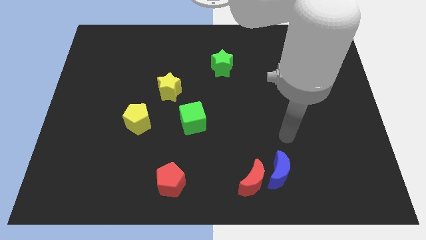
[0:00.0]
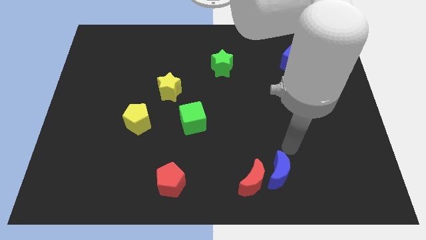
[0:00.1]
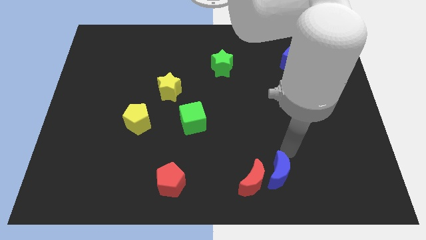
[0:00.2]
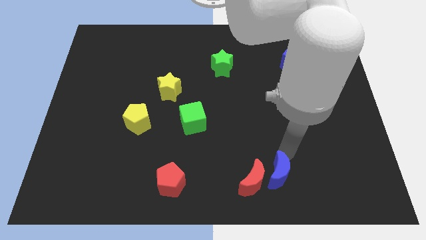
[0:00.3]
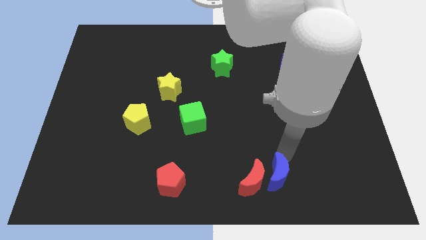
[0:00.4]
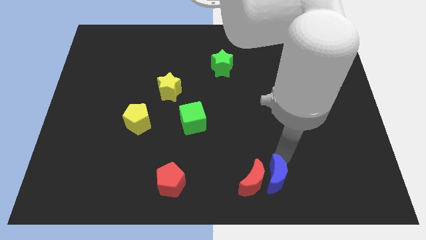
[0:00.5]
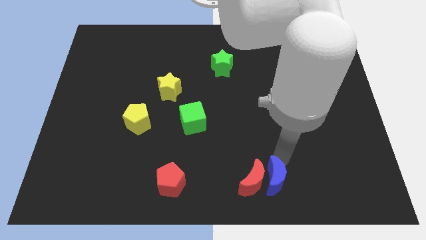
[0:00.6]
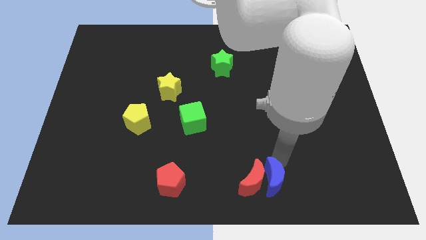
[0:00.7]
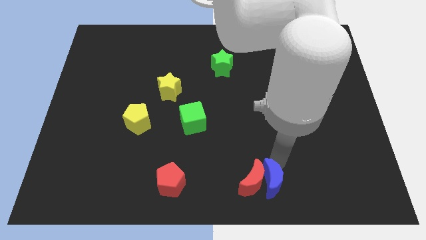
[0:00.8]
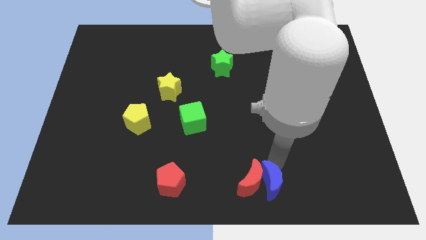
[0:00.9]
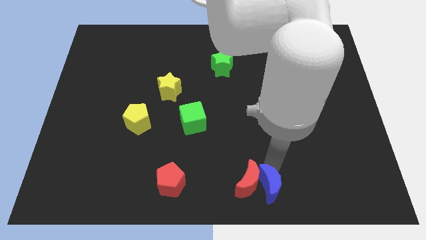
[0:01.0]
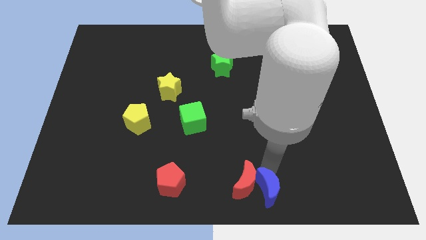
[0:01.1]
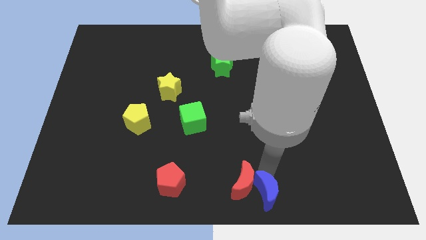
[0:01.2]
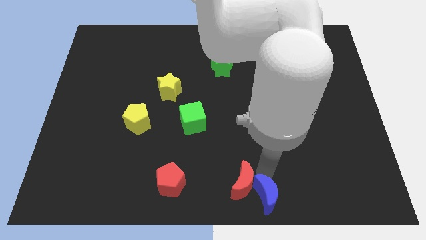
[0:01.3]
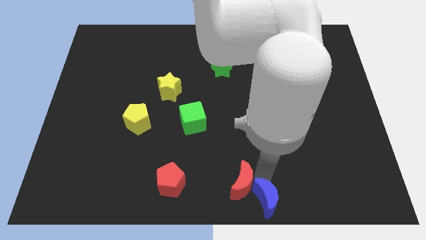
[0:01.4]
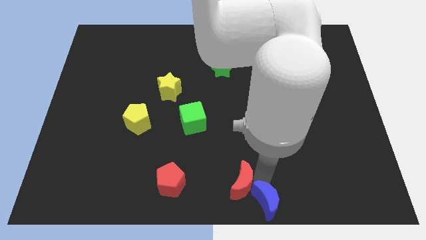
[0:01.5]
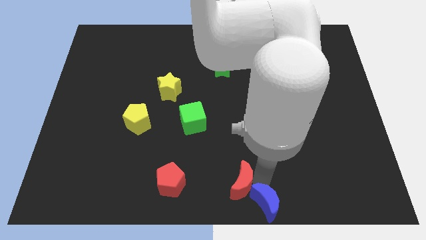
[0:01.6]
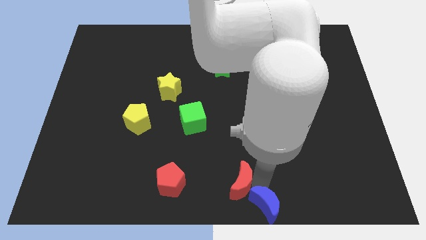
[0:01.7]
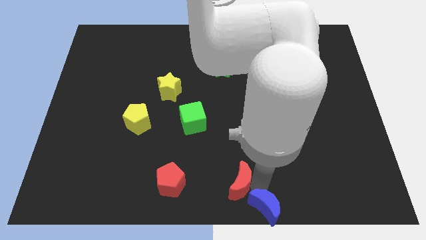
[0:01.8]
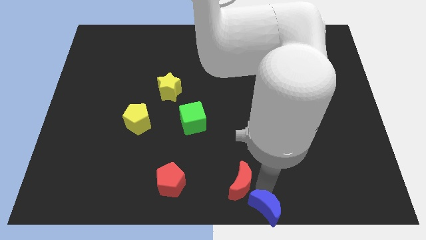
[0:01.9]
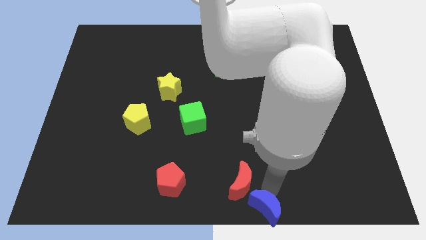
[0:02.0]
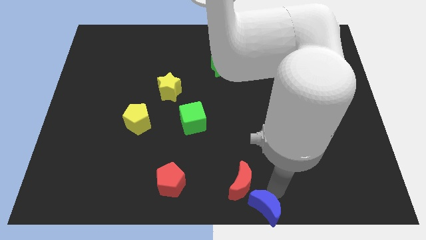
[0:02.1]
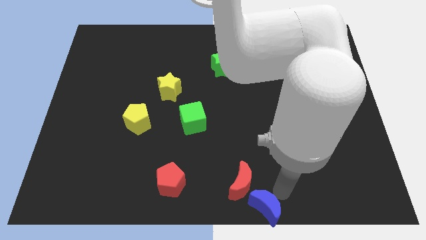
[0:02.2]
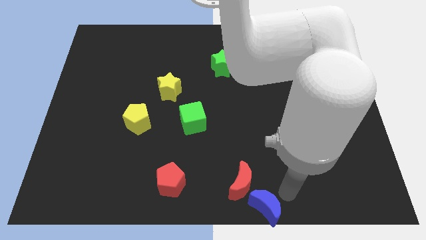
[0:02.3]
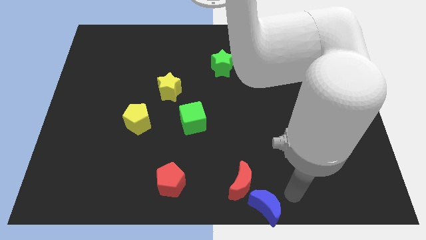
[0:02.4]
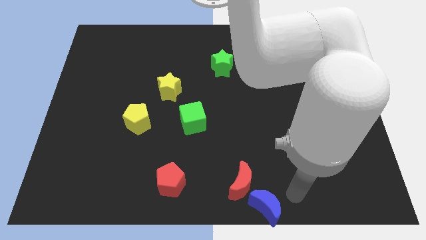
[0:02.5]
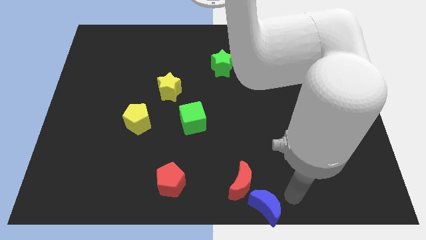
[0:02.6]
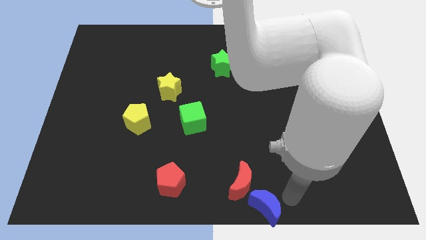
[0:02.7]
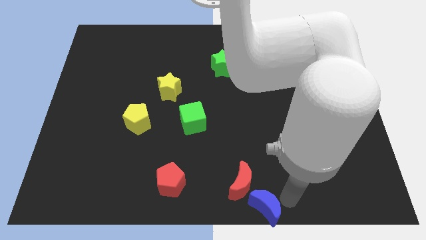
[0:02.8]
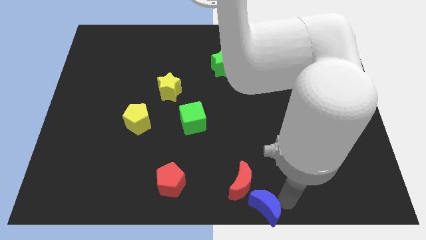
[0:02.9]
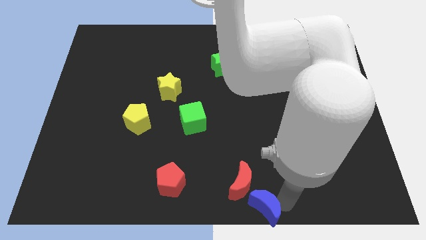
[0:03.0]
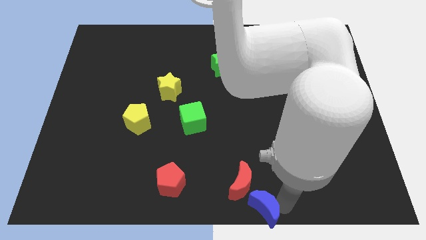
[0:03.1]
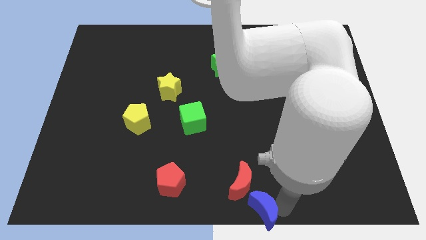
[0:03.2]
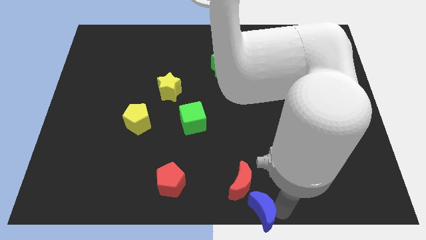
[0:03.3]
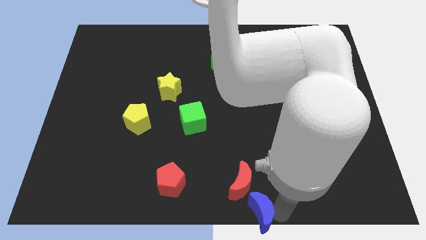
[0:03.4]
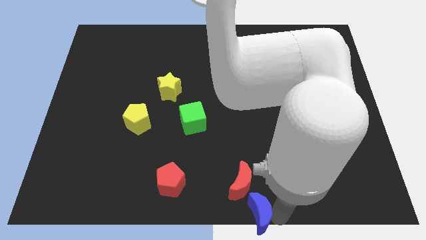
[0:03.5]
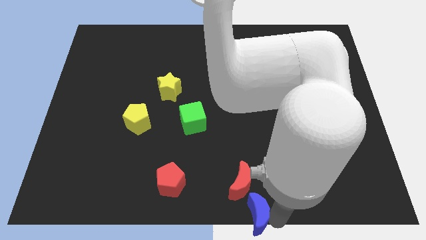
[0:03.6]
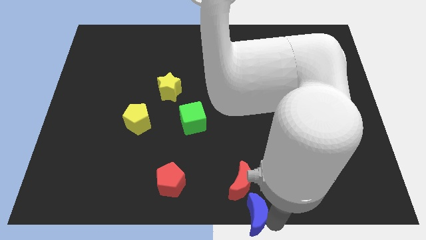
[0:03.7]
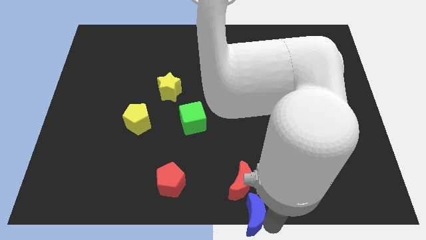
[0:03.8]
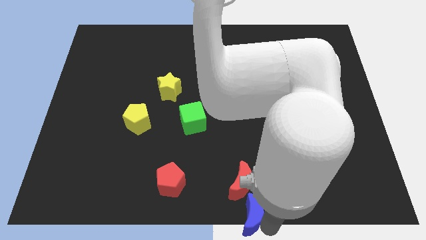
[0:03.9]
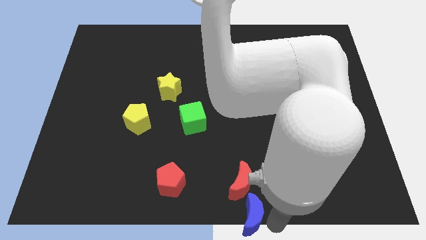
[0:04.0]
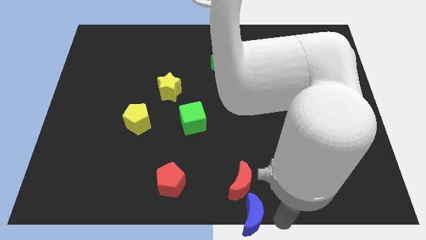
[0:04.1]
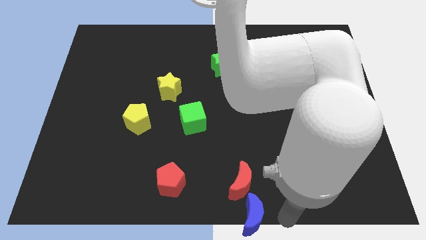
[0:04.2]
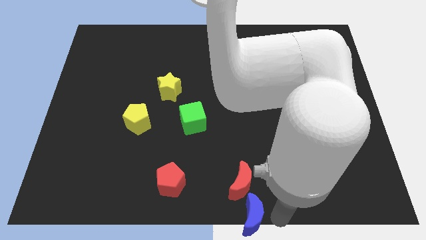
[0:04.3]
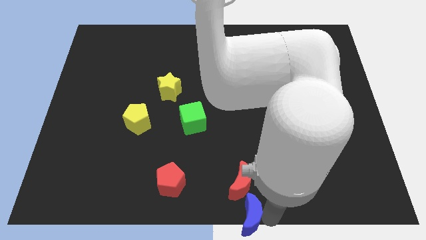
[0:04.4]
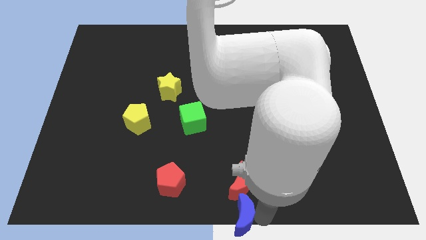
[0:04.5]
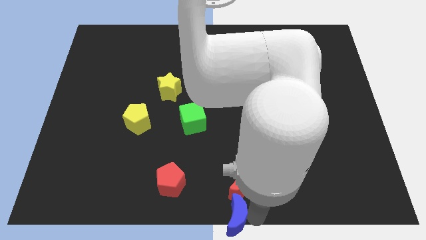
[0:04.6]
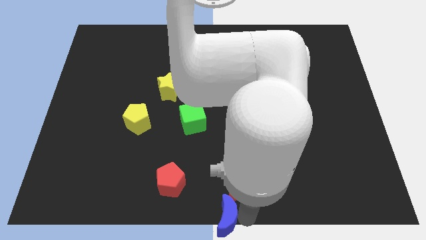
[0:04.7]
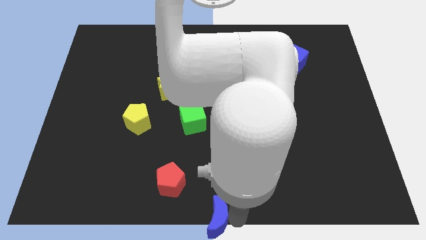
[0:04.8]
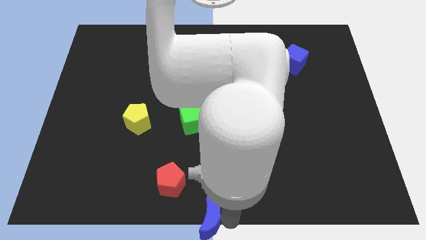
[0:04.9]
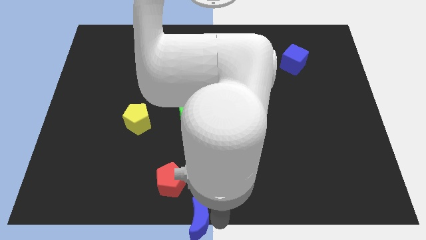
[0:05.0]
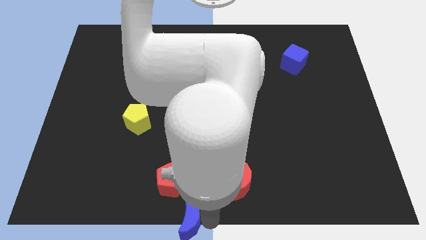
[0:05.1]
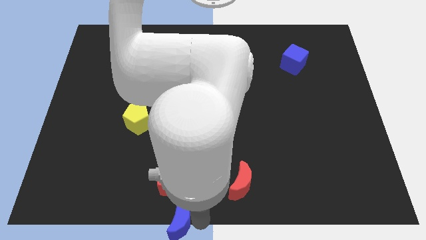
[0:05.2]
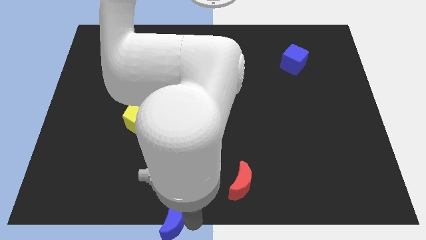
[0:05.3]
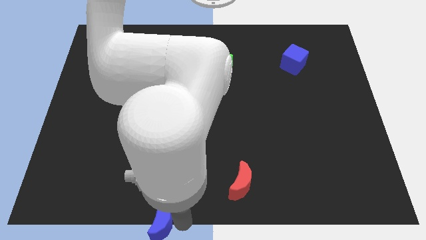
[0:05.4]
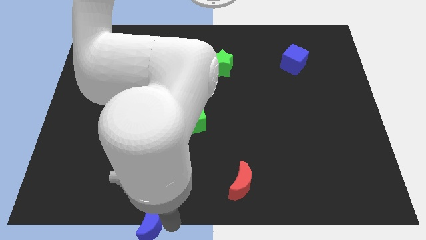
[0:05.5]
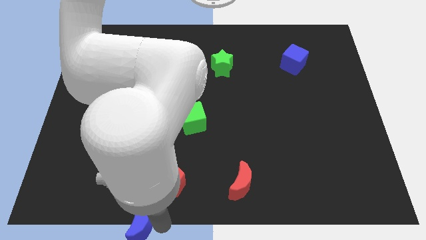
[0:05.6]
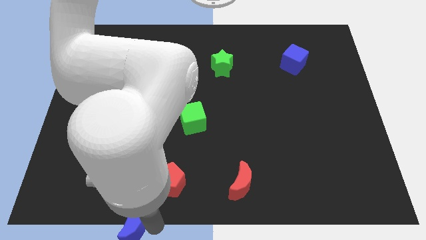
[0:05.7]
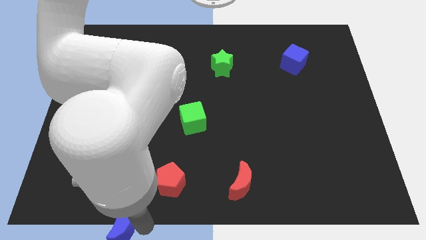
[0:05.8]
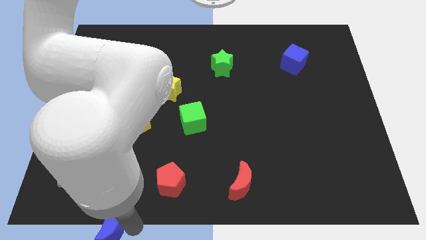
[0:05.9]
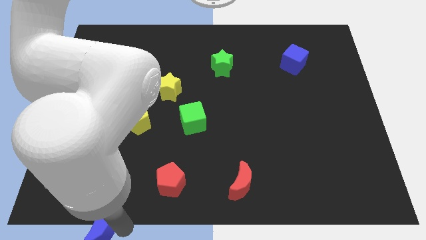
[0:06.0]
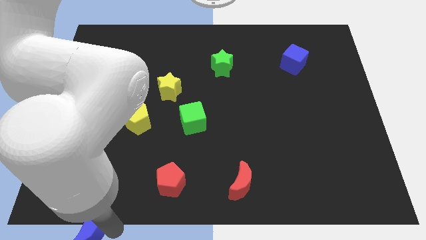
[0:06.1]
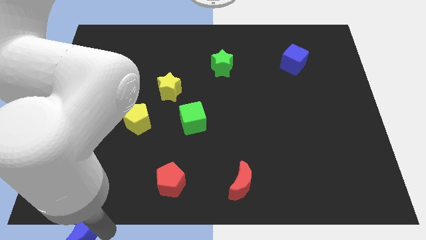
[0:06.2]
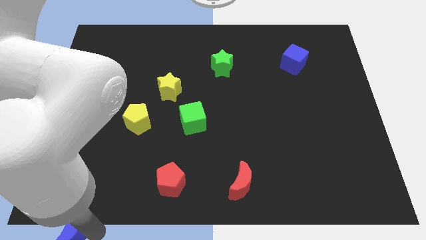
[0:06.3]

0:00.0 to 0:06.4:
move the blue moon to the bottom left

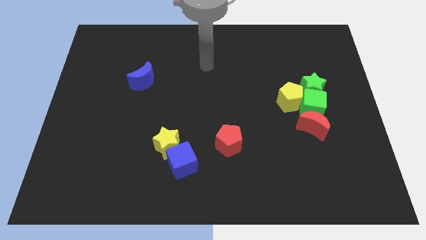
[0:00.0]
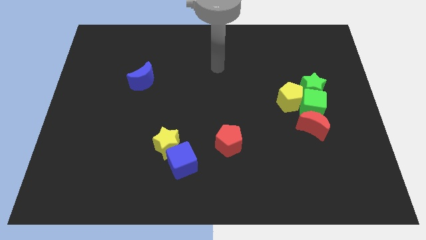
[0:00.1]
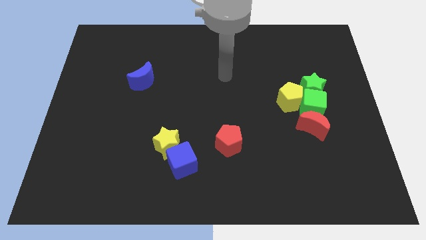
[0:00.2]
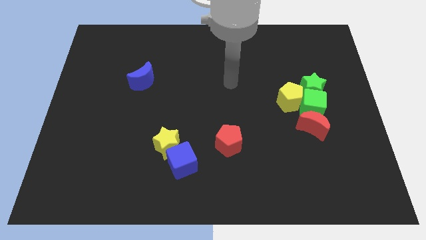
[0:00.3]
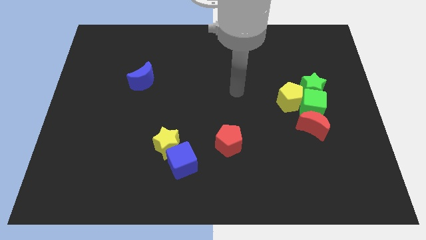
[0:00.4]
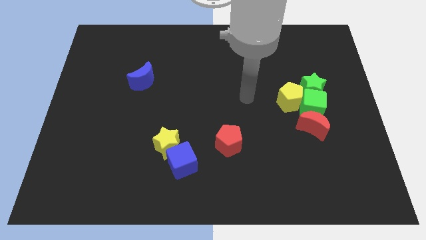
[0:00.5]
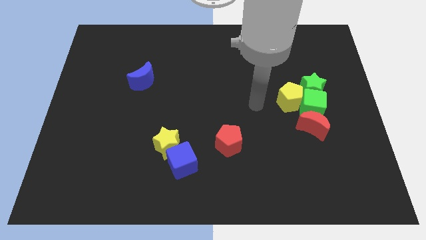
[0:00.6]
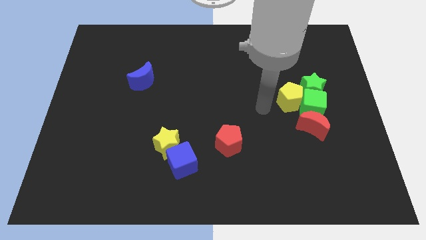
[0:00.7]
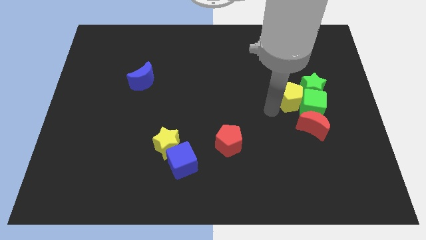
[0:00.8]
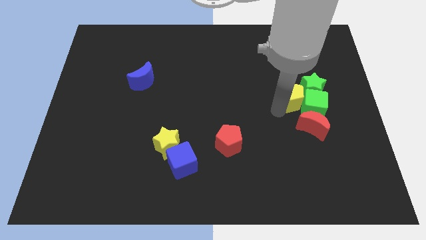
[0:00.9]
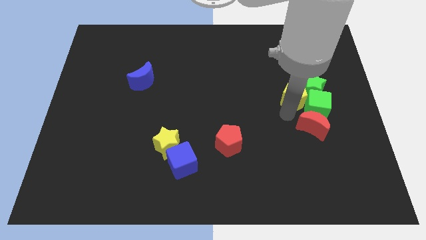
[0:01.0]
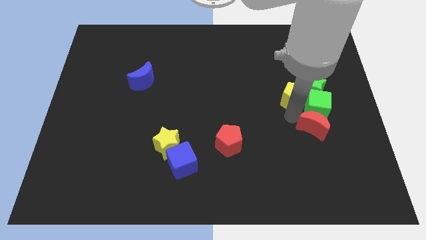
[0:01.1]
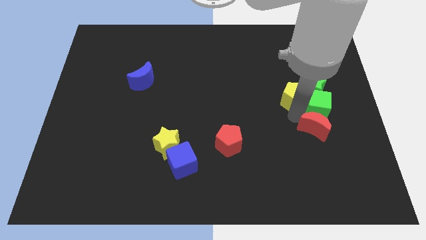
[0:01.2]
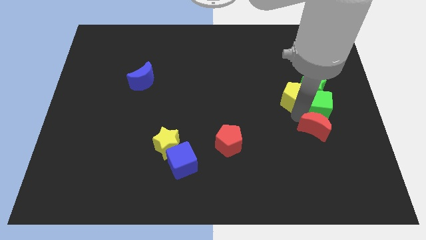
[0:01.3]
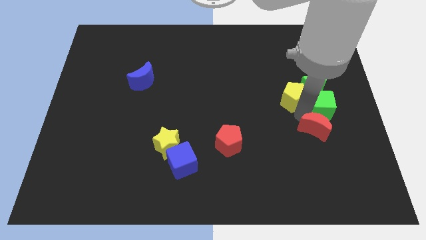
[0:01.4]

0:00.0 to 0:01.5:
put the green cube to the center right
